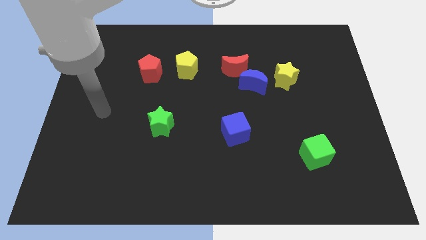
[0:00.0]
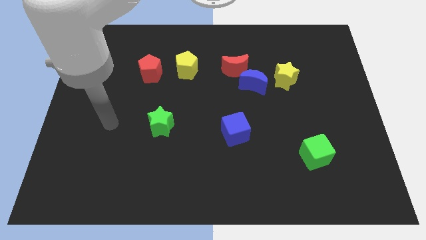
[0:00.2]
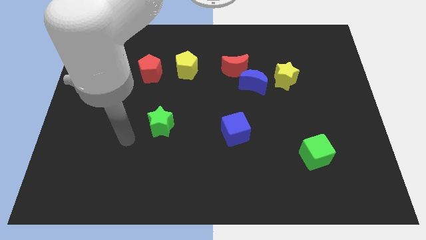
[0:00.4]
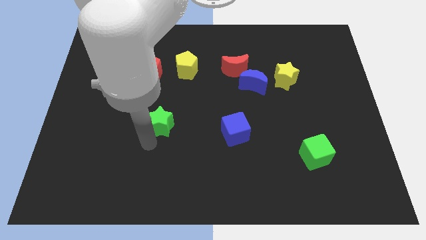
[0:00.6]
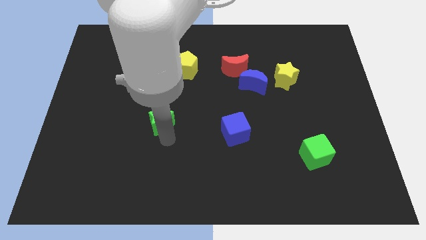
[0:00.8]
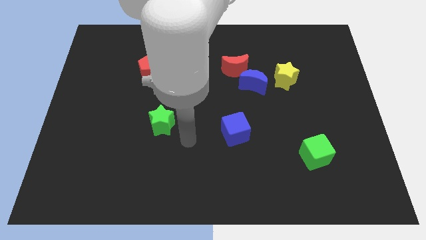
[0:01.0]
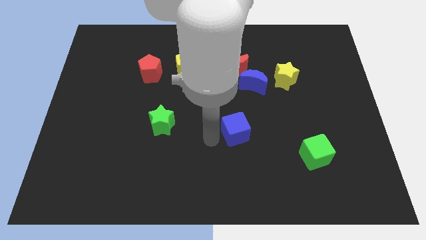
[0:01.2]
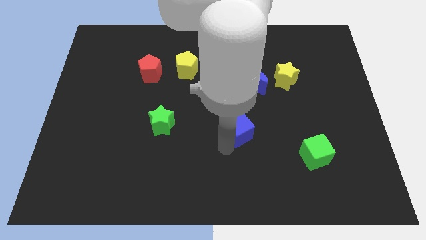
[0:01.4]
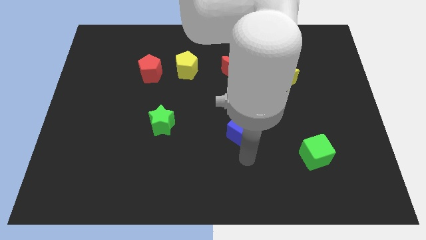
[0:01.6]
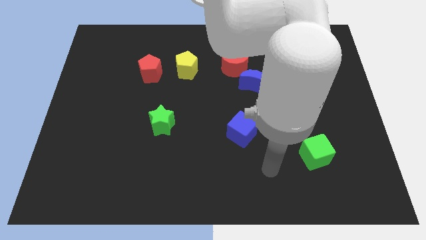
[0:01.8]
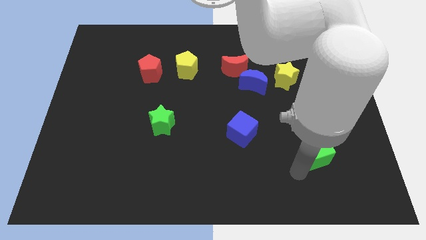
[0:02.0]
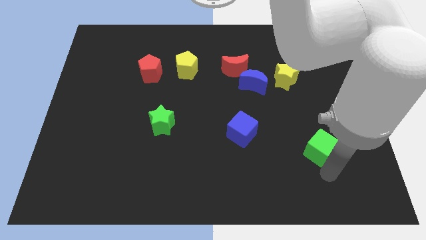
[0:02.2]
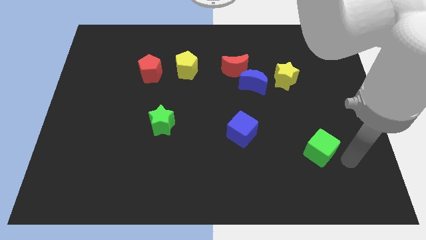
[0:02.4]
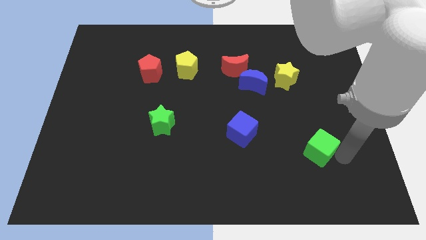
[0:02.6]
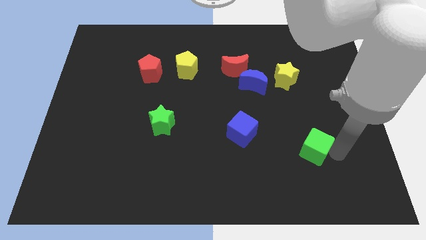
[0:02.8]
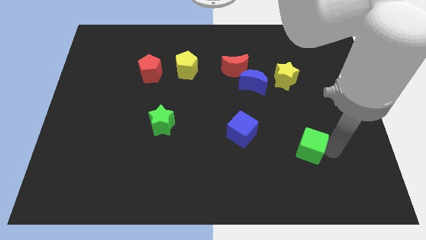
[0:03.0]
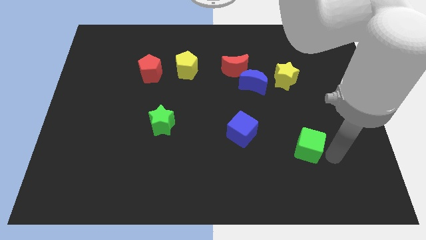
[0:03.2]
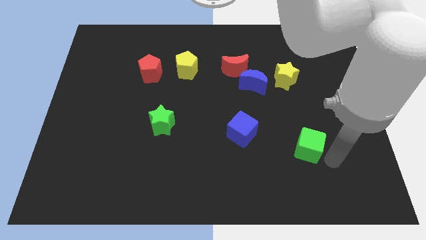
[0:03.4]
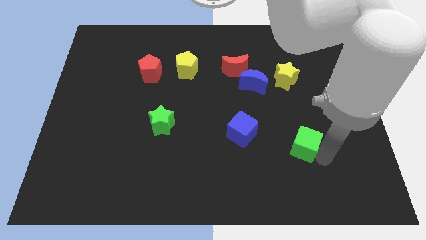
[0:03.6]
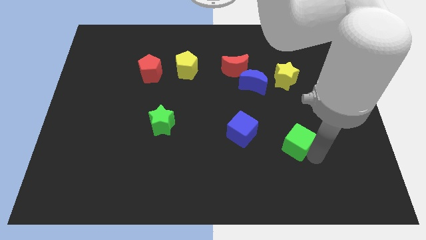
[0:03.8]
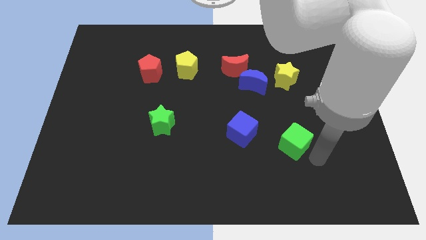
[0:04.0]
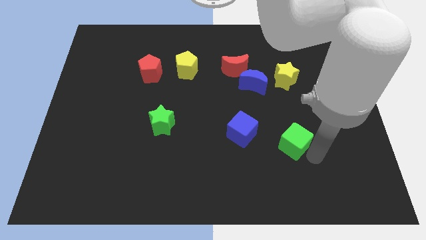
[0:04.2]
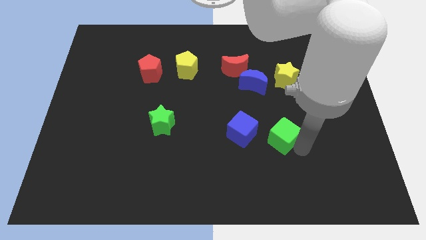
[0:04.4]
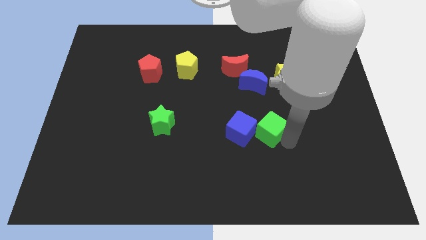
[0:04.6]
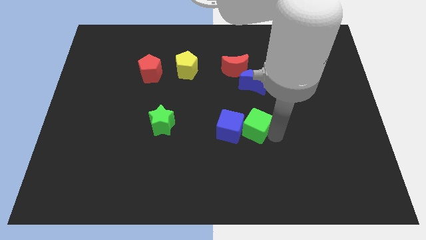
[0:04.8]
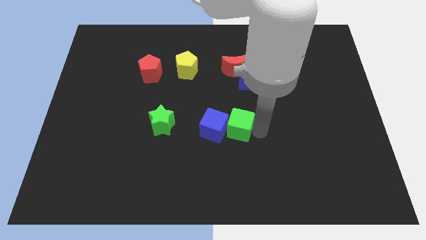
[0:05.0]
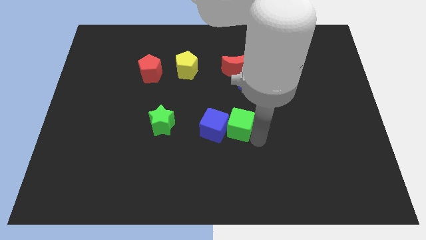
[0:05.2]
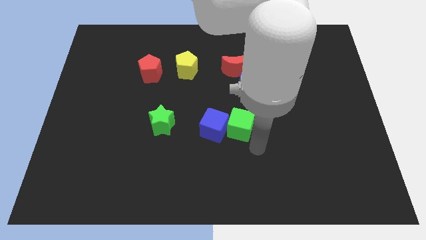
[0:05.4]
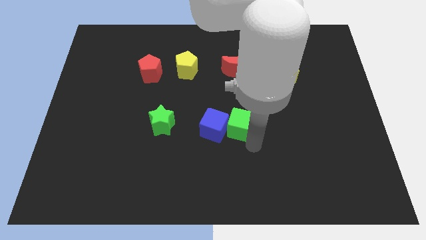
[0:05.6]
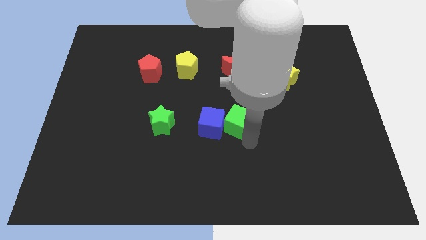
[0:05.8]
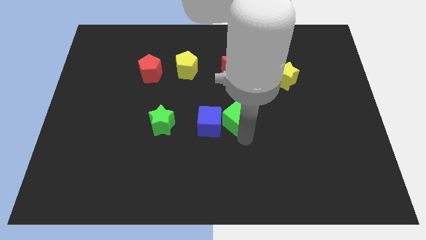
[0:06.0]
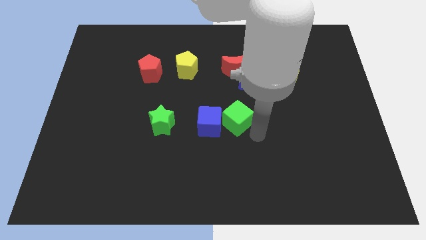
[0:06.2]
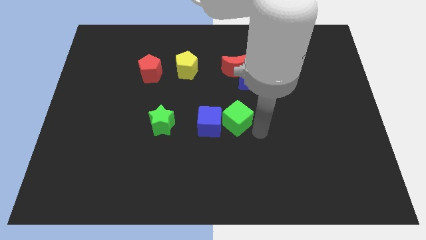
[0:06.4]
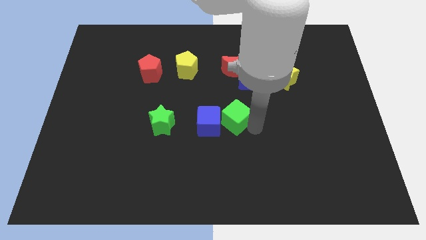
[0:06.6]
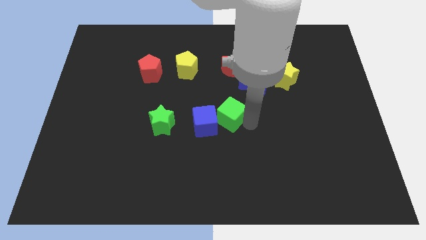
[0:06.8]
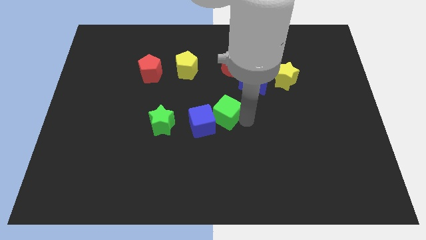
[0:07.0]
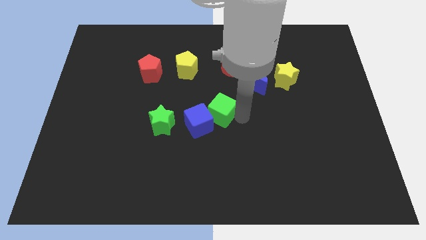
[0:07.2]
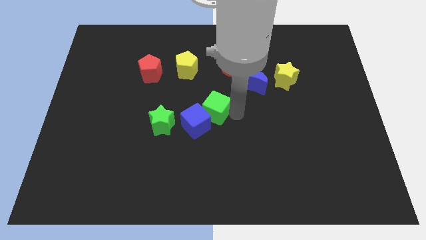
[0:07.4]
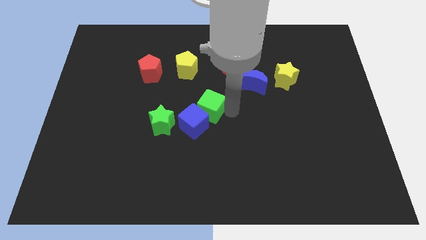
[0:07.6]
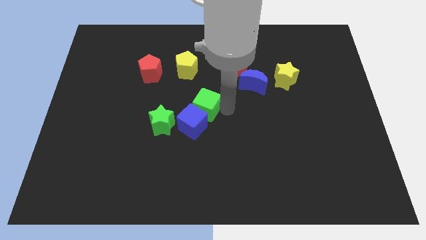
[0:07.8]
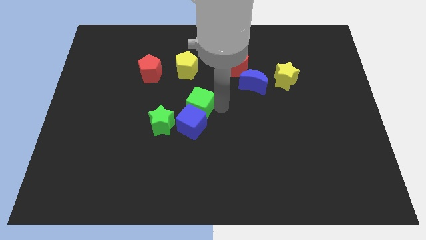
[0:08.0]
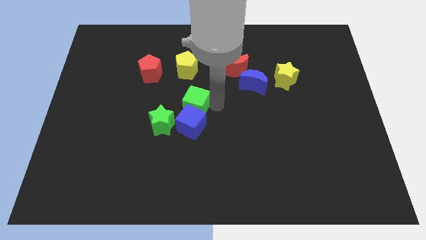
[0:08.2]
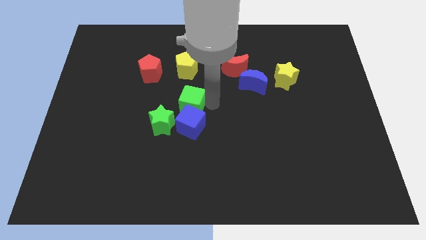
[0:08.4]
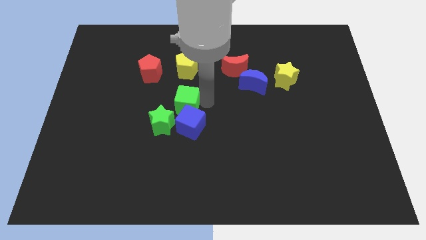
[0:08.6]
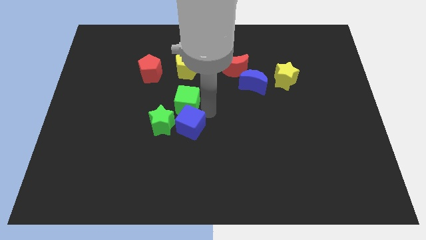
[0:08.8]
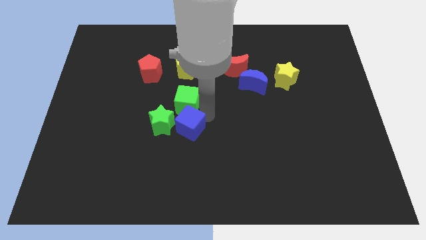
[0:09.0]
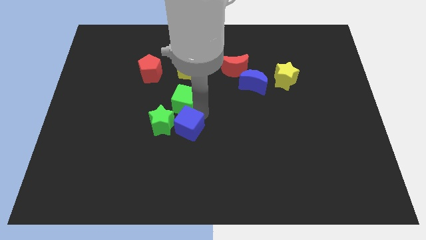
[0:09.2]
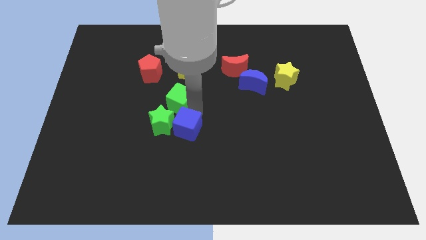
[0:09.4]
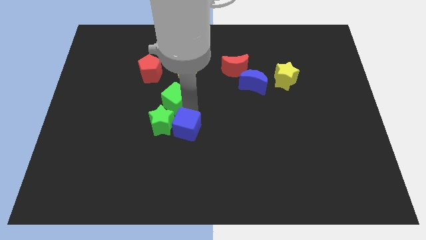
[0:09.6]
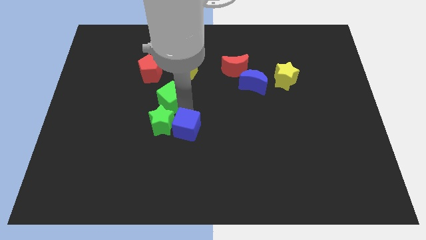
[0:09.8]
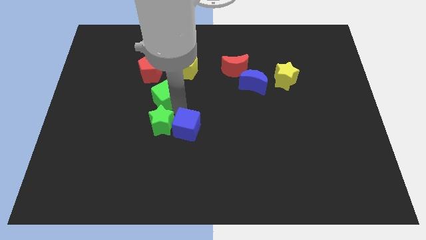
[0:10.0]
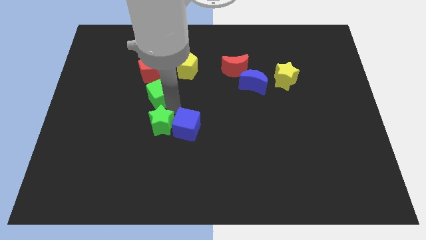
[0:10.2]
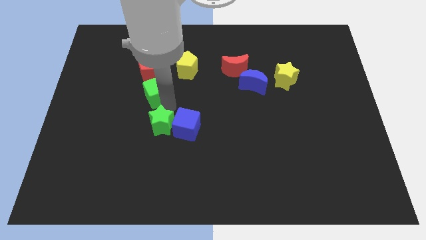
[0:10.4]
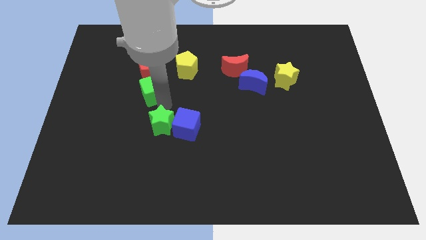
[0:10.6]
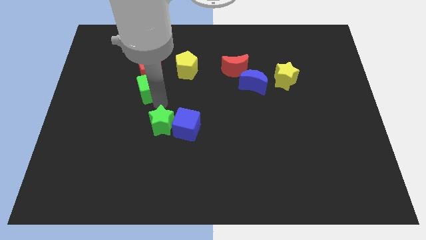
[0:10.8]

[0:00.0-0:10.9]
push the green cube next to the red pentagon

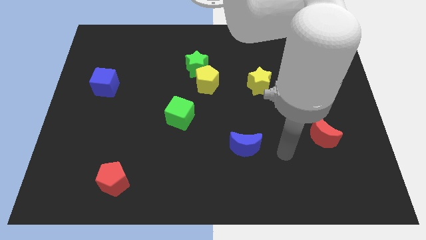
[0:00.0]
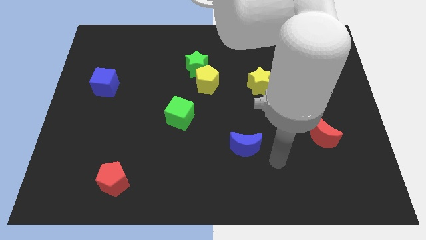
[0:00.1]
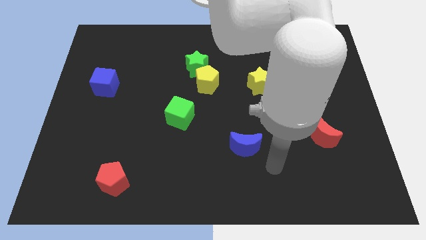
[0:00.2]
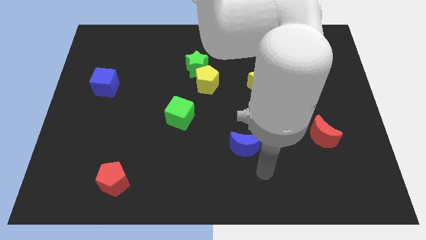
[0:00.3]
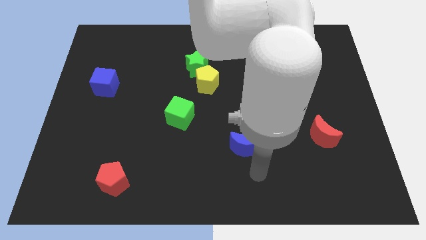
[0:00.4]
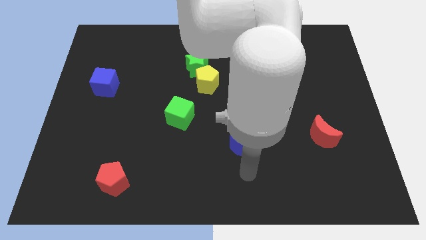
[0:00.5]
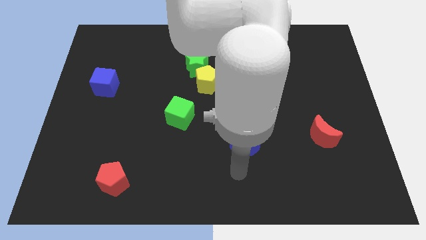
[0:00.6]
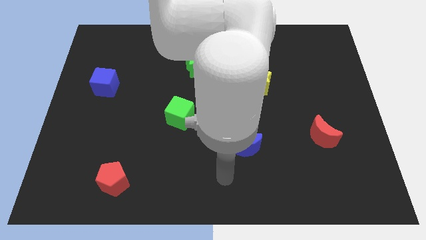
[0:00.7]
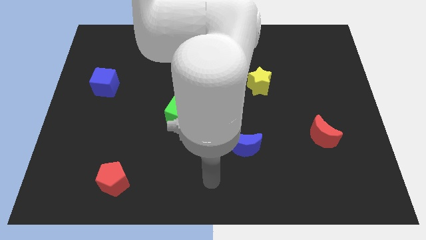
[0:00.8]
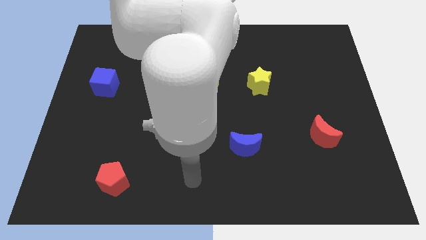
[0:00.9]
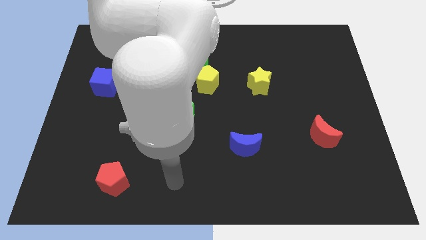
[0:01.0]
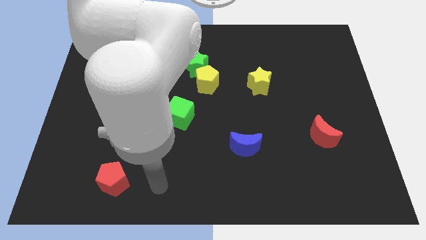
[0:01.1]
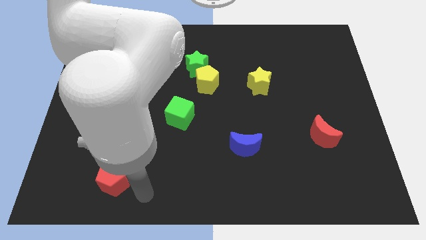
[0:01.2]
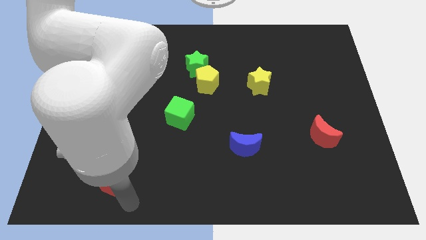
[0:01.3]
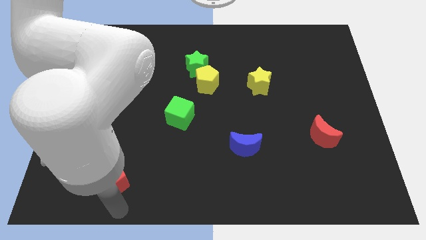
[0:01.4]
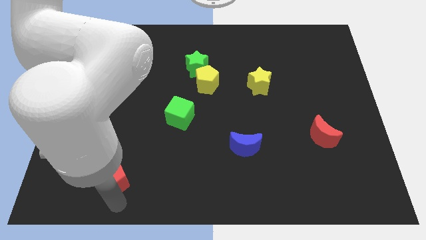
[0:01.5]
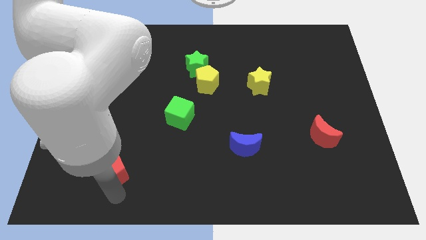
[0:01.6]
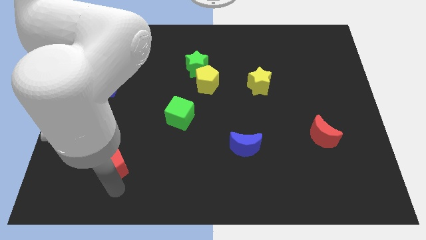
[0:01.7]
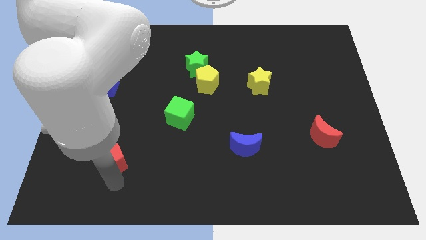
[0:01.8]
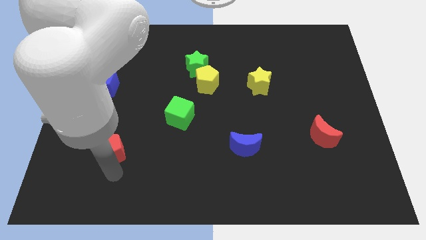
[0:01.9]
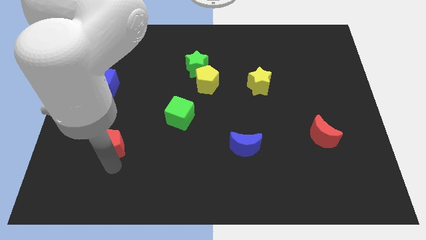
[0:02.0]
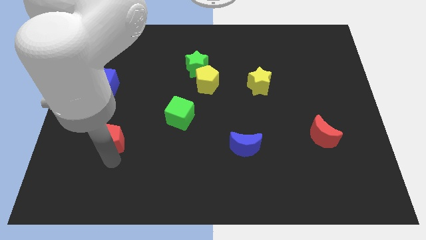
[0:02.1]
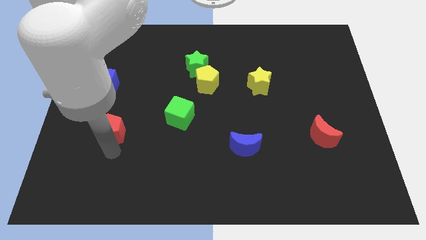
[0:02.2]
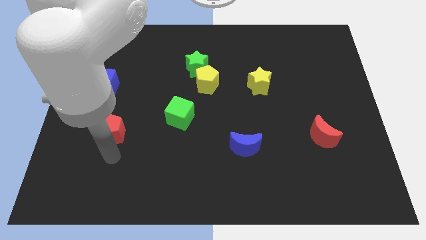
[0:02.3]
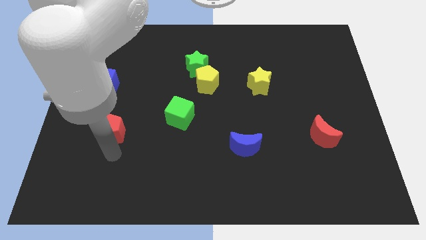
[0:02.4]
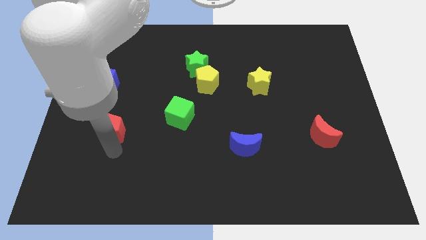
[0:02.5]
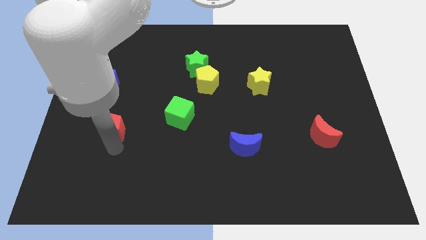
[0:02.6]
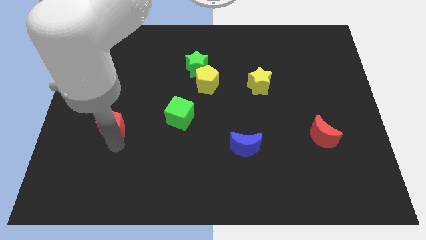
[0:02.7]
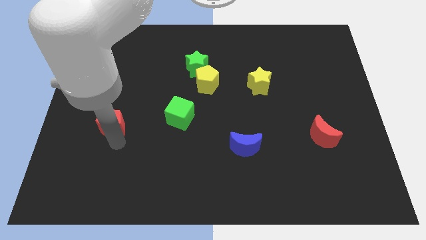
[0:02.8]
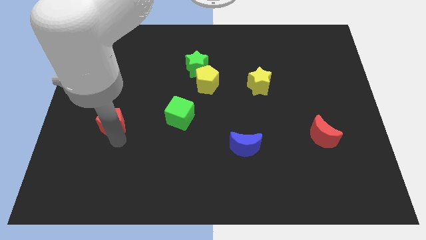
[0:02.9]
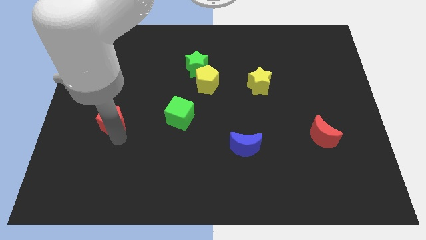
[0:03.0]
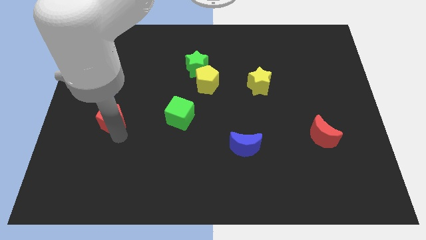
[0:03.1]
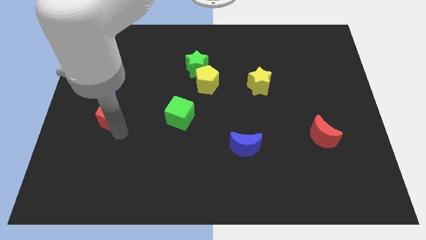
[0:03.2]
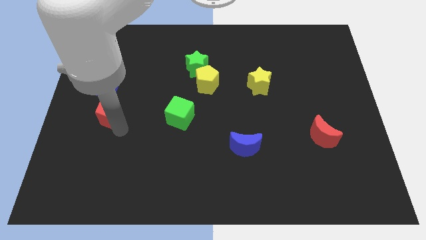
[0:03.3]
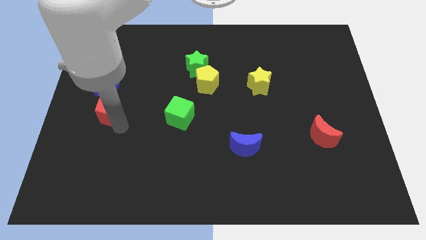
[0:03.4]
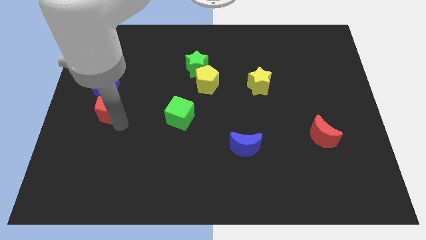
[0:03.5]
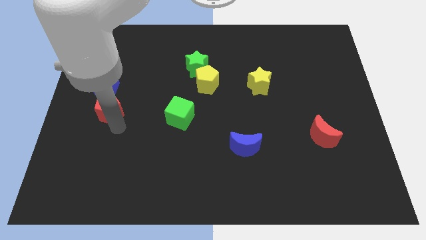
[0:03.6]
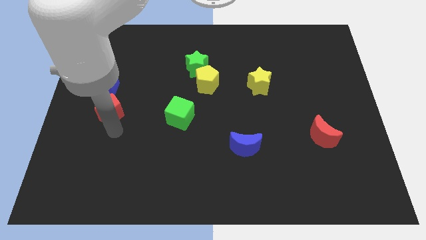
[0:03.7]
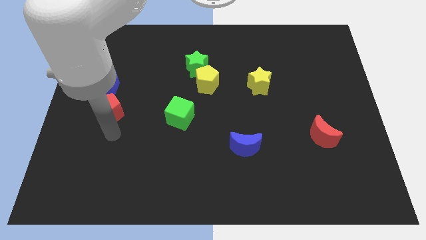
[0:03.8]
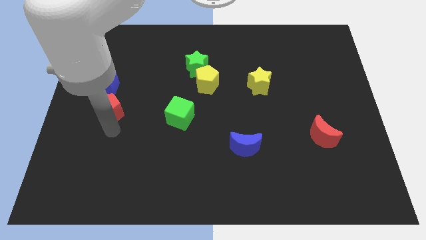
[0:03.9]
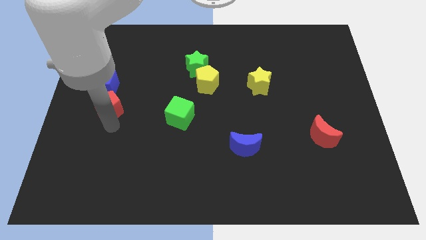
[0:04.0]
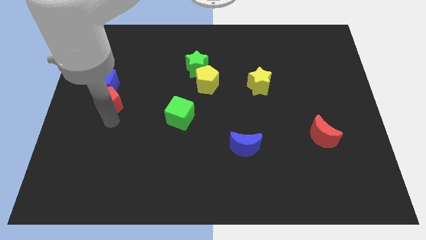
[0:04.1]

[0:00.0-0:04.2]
move the red pentagon next to the blue cube
